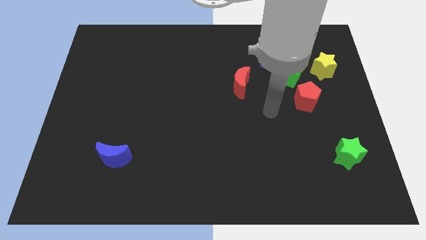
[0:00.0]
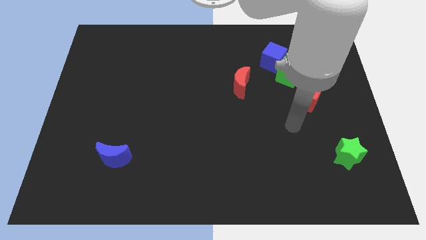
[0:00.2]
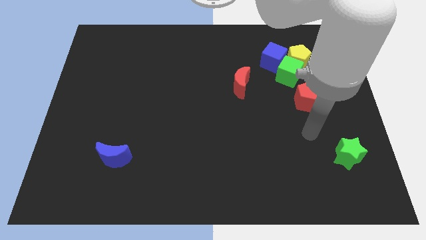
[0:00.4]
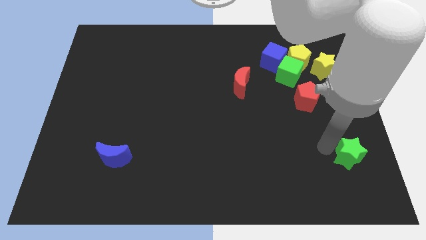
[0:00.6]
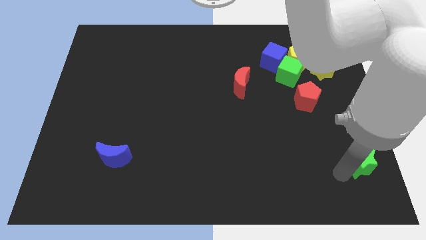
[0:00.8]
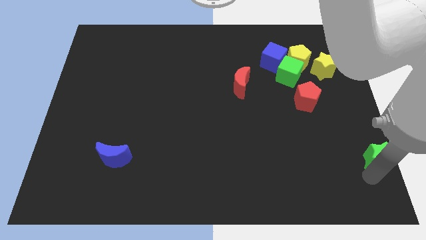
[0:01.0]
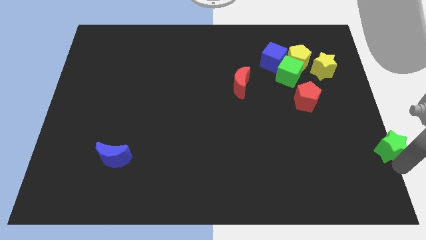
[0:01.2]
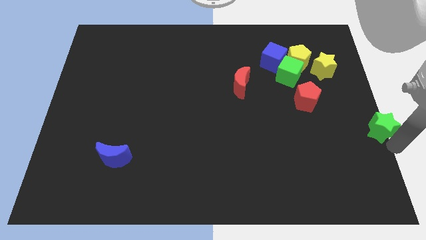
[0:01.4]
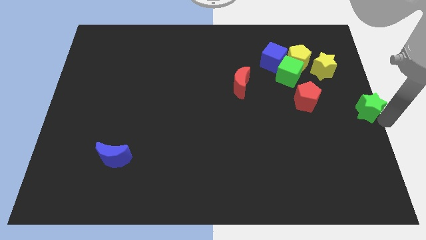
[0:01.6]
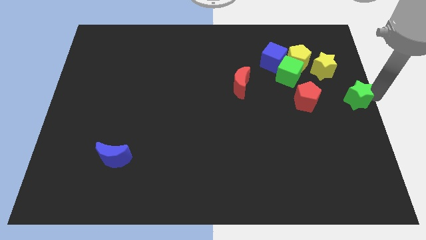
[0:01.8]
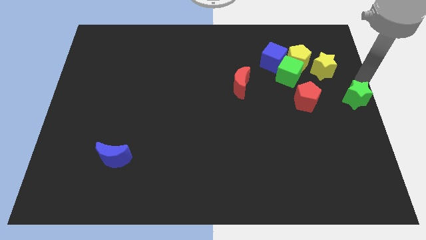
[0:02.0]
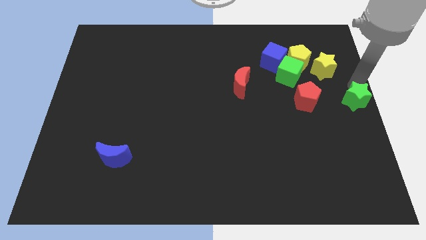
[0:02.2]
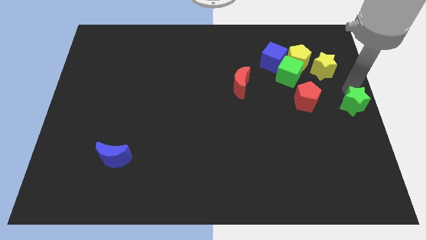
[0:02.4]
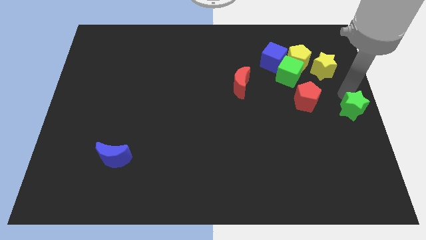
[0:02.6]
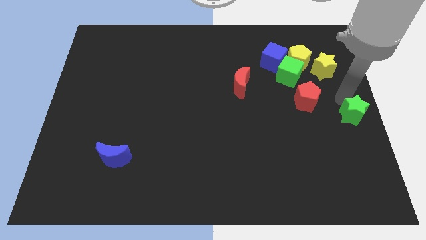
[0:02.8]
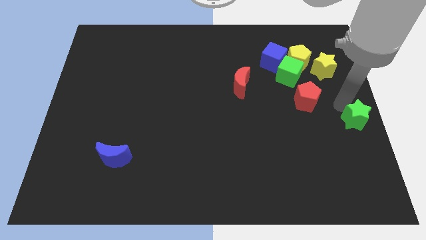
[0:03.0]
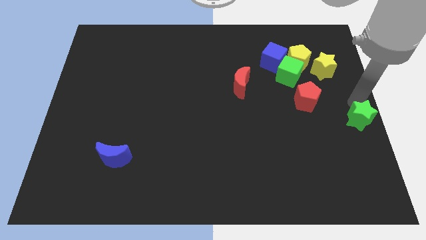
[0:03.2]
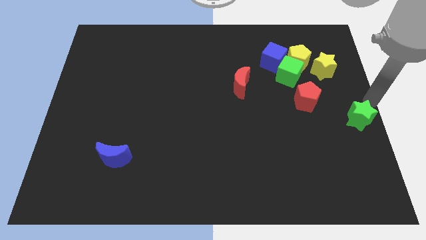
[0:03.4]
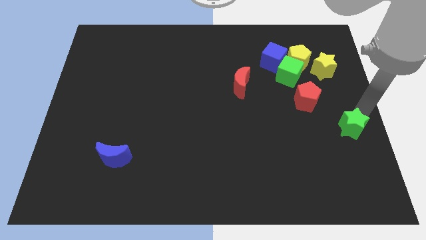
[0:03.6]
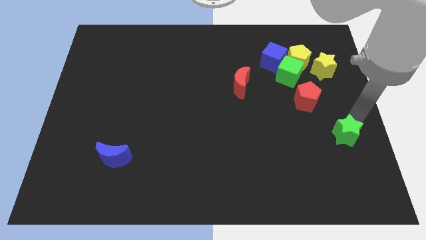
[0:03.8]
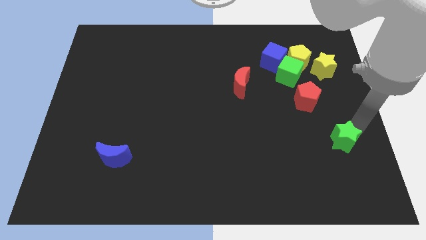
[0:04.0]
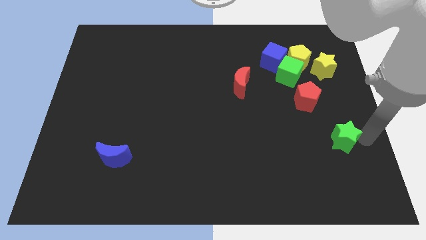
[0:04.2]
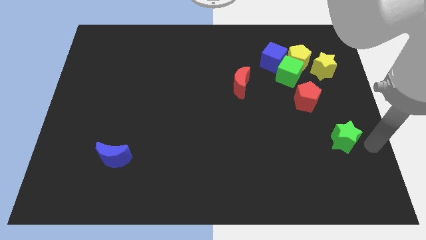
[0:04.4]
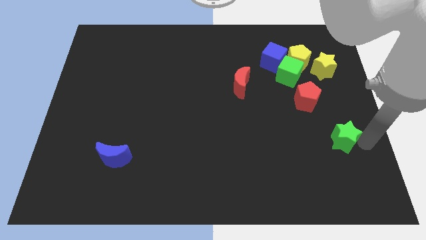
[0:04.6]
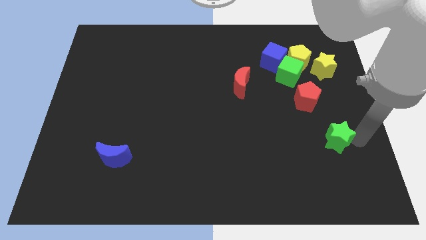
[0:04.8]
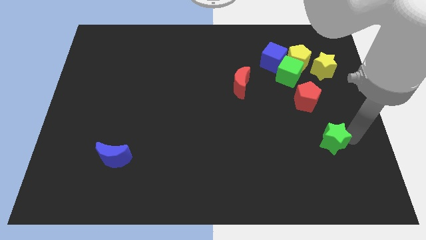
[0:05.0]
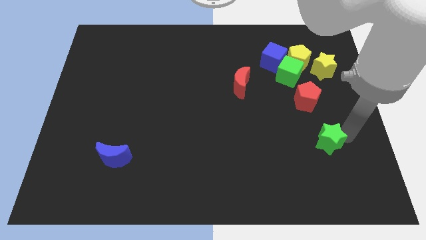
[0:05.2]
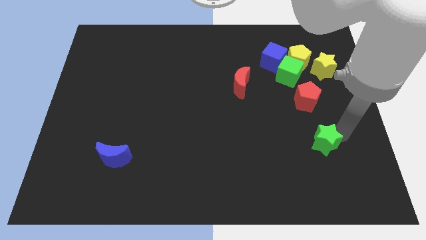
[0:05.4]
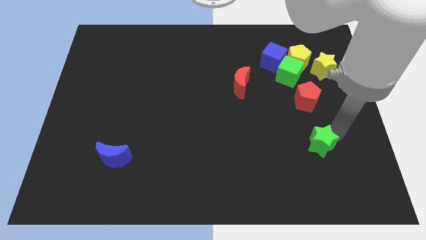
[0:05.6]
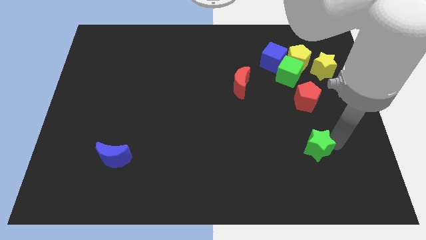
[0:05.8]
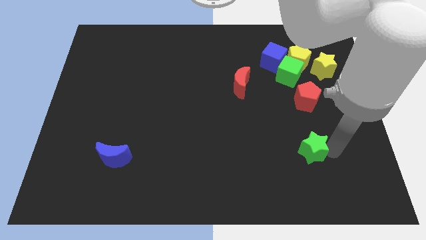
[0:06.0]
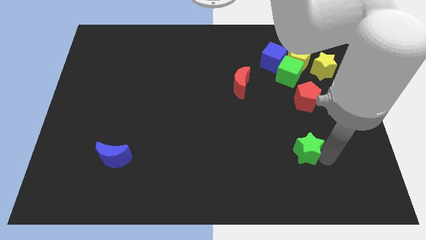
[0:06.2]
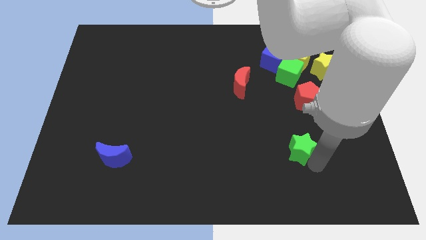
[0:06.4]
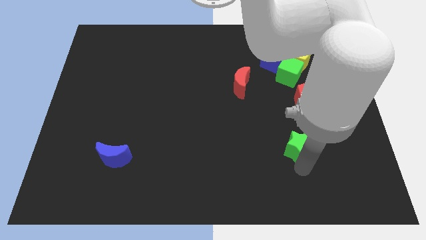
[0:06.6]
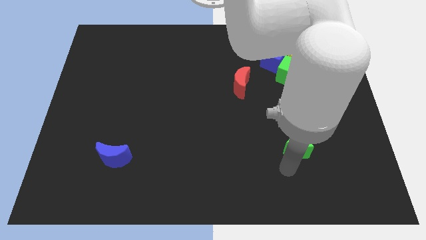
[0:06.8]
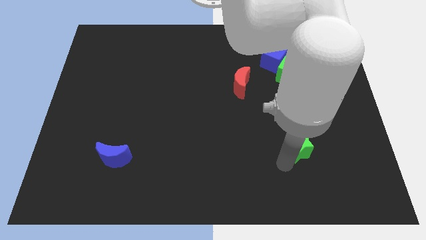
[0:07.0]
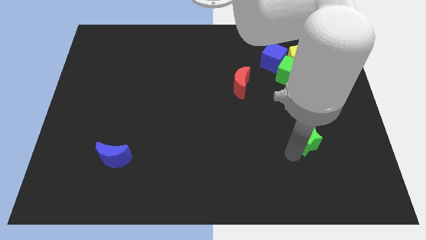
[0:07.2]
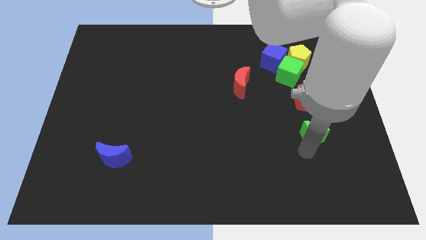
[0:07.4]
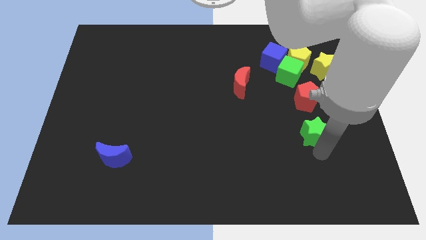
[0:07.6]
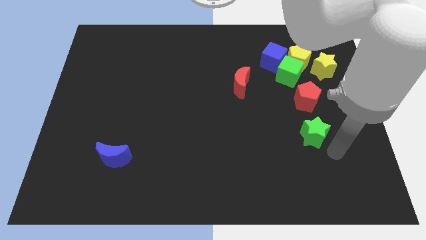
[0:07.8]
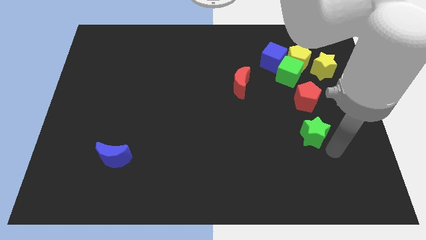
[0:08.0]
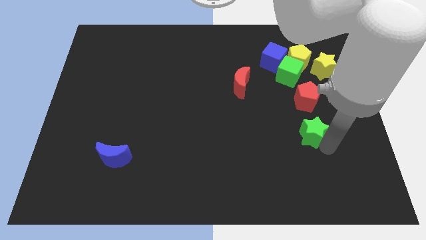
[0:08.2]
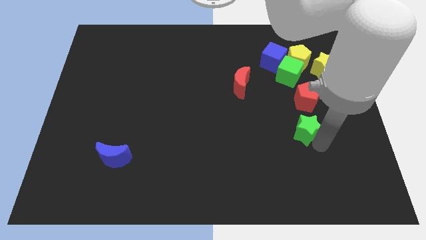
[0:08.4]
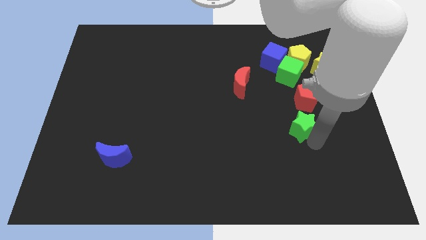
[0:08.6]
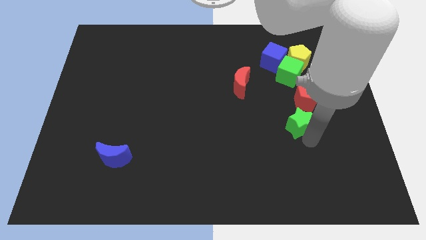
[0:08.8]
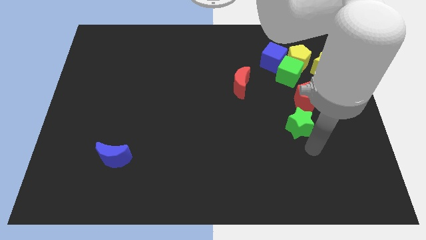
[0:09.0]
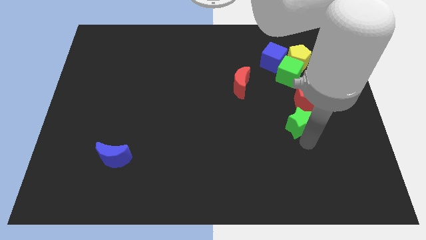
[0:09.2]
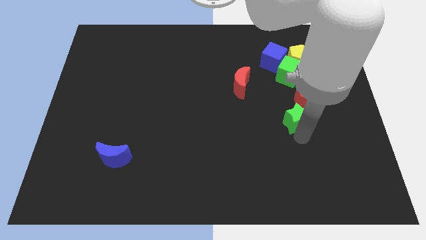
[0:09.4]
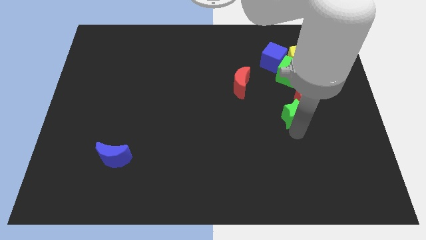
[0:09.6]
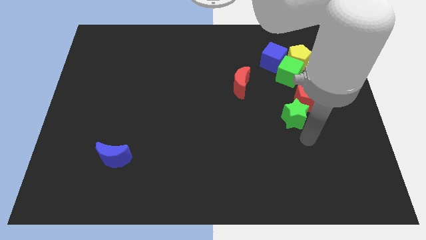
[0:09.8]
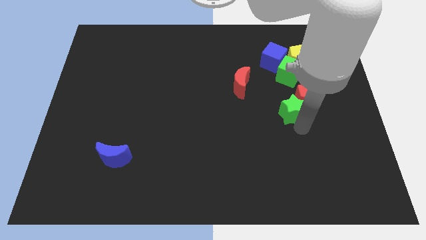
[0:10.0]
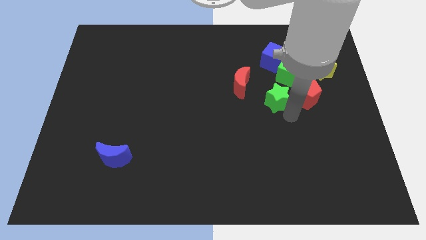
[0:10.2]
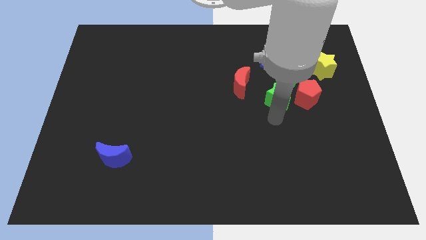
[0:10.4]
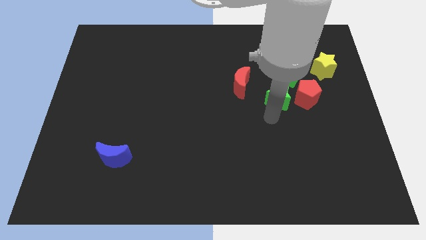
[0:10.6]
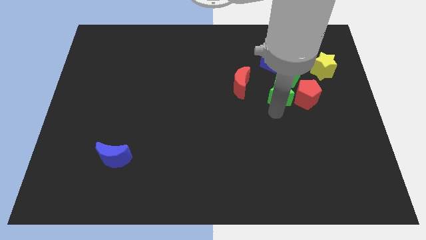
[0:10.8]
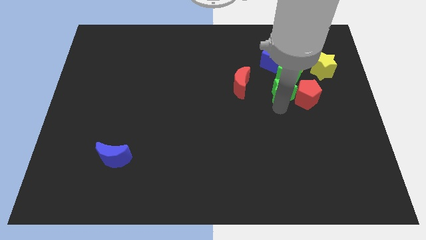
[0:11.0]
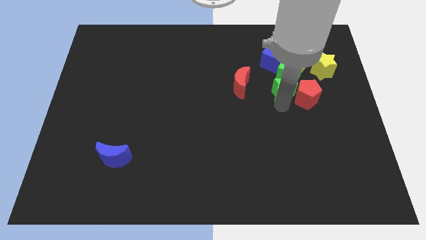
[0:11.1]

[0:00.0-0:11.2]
slide the green star close to the green cube

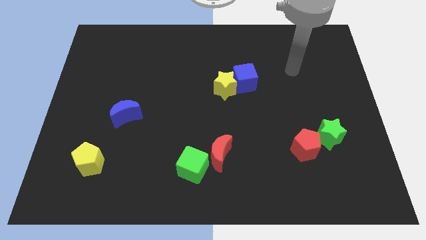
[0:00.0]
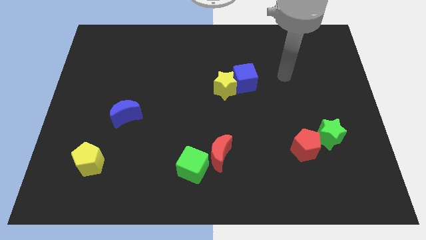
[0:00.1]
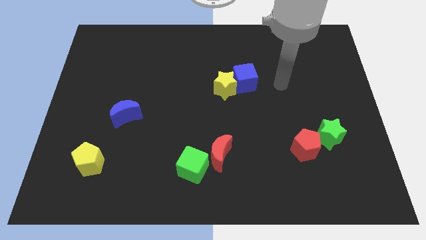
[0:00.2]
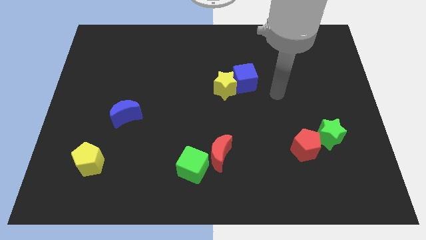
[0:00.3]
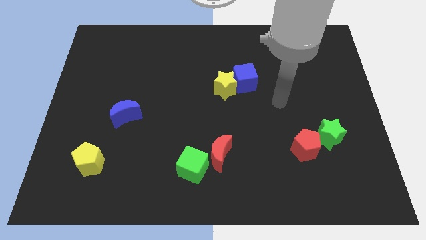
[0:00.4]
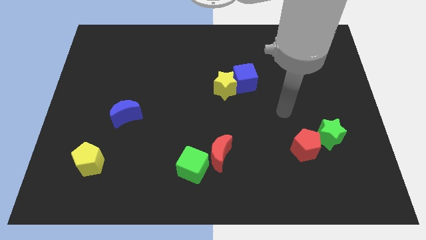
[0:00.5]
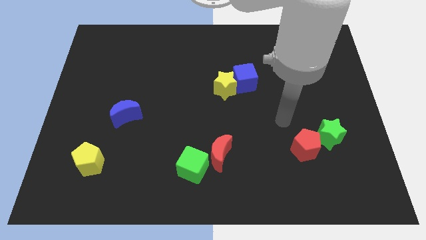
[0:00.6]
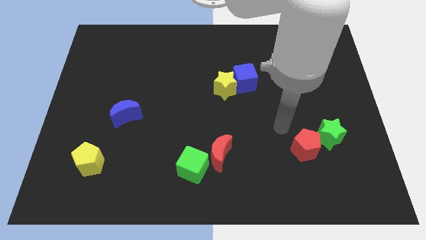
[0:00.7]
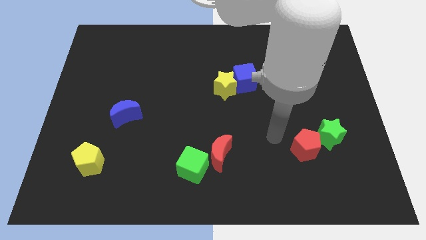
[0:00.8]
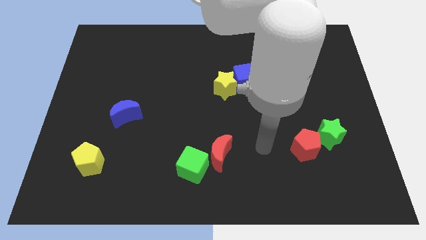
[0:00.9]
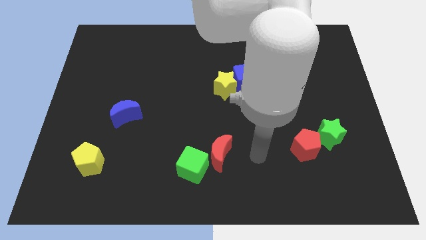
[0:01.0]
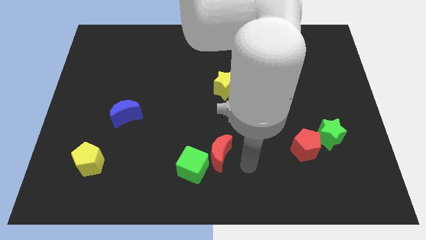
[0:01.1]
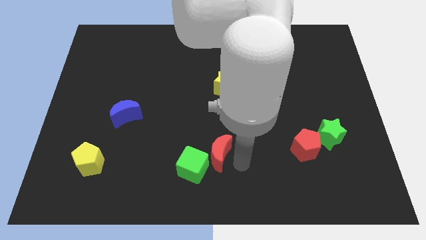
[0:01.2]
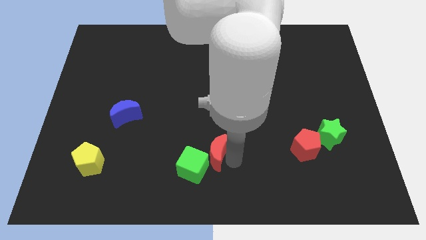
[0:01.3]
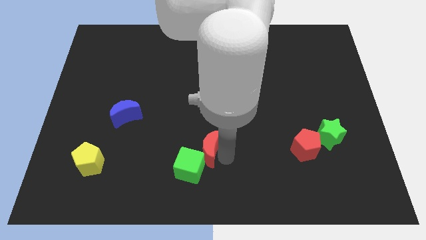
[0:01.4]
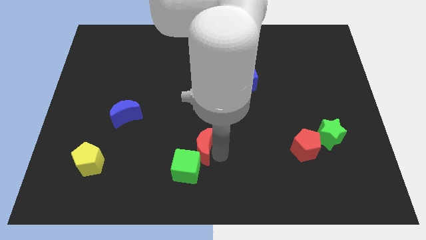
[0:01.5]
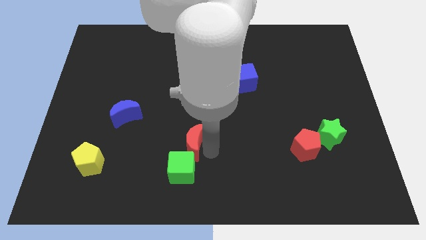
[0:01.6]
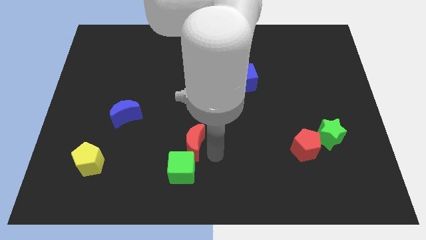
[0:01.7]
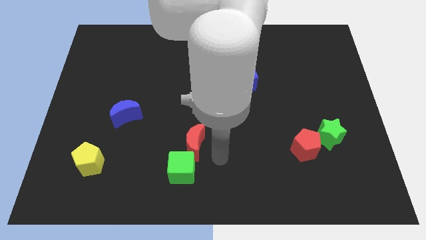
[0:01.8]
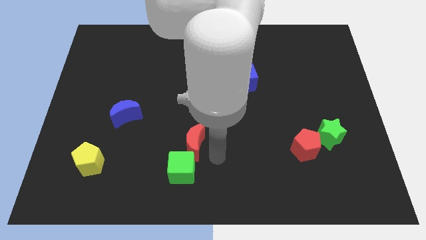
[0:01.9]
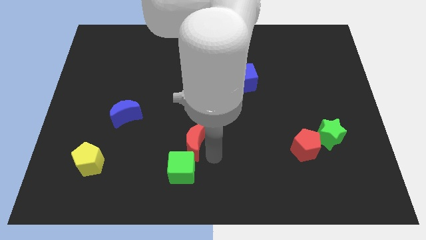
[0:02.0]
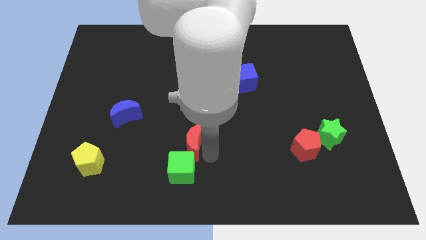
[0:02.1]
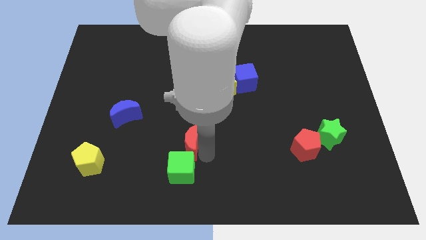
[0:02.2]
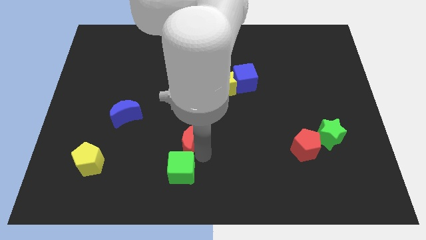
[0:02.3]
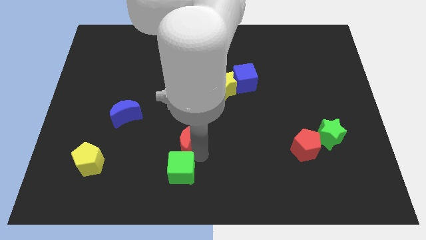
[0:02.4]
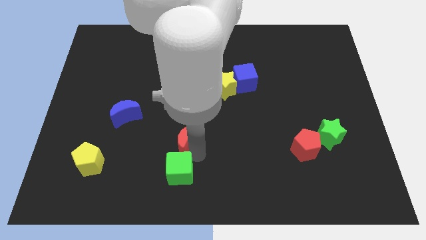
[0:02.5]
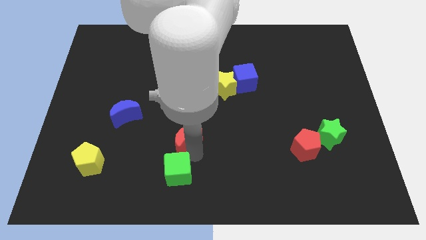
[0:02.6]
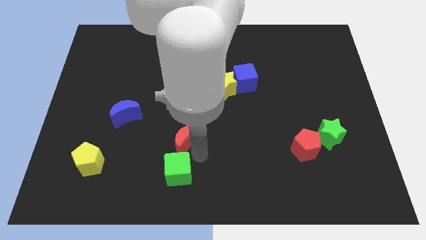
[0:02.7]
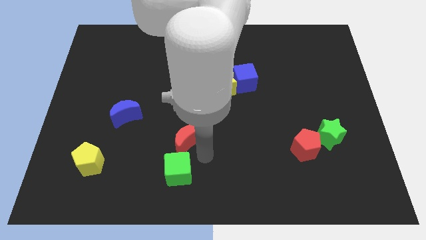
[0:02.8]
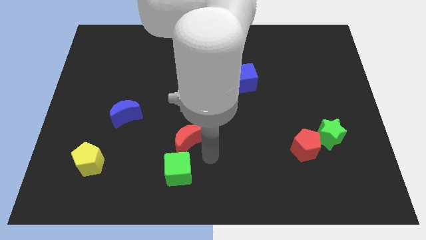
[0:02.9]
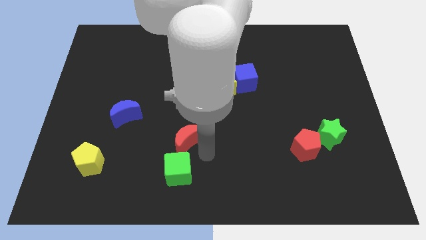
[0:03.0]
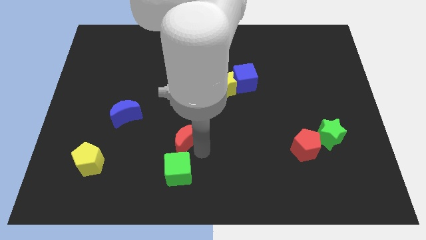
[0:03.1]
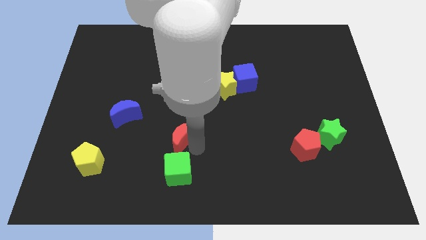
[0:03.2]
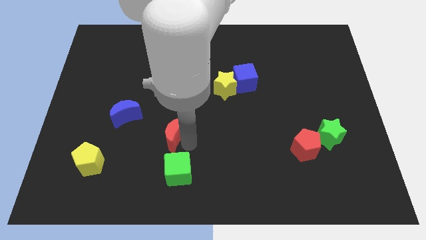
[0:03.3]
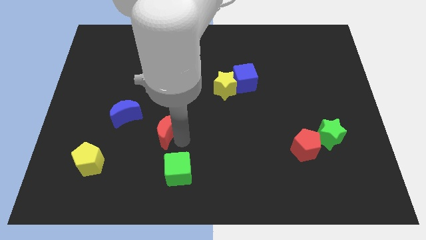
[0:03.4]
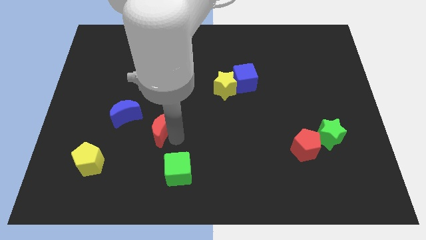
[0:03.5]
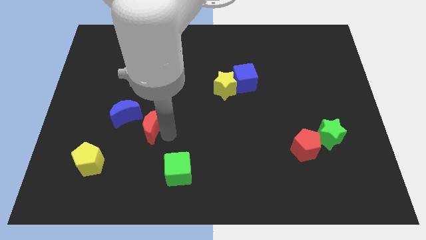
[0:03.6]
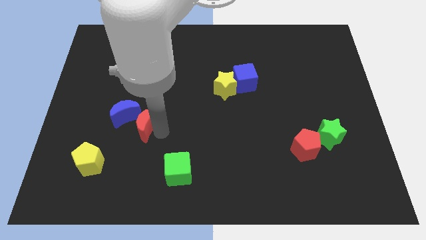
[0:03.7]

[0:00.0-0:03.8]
slide the red moon to the blue moon
